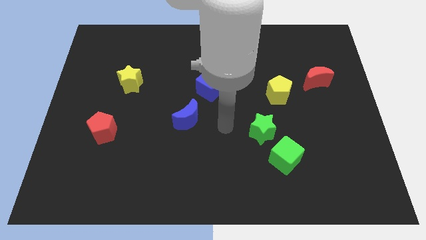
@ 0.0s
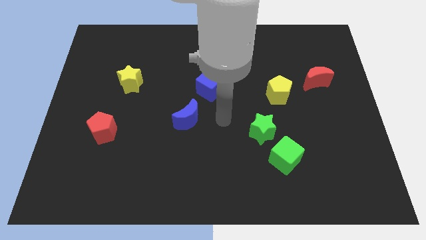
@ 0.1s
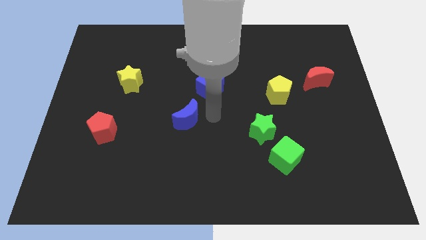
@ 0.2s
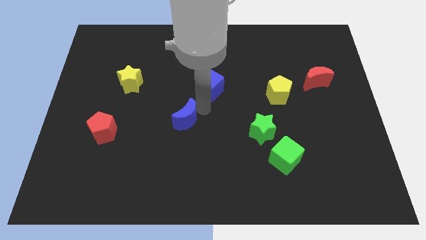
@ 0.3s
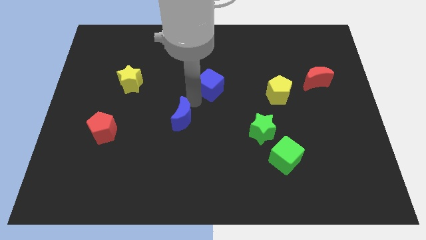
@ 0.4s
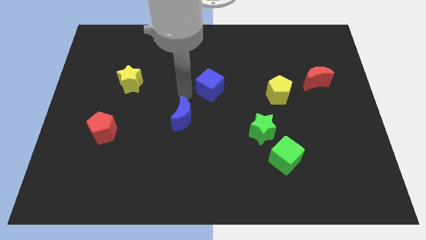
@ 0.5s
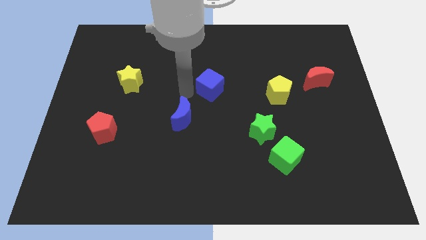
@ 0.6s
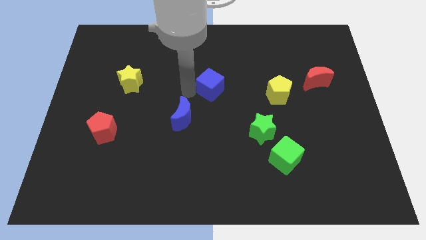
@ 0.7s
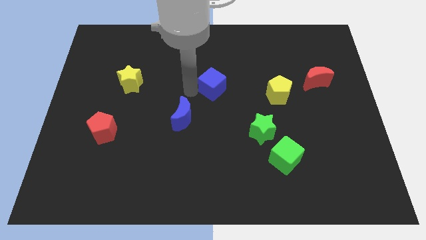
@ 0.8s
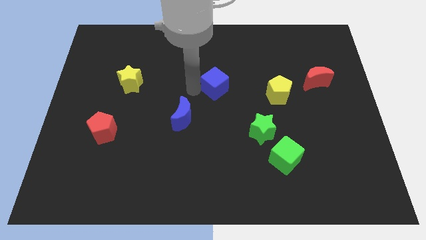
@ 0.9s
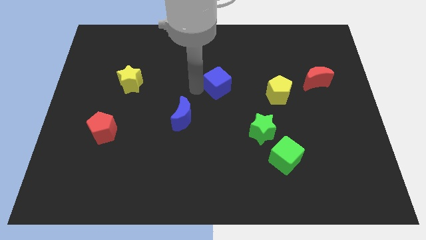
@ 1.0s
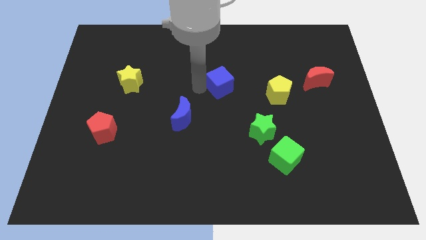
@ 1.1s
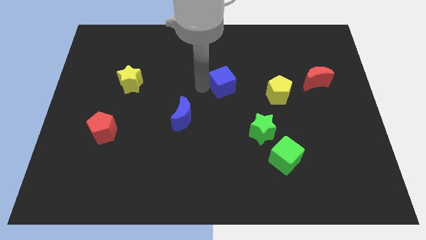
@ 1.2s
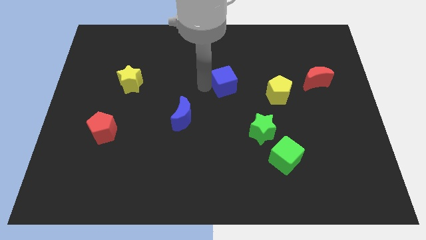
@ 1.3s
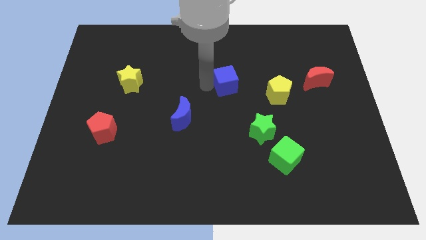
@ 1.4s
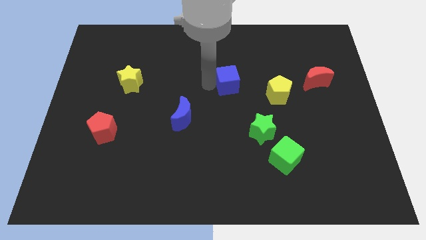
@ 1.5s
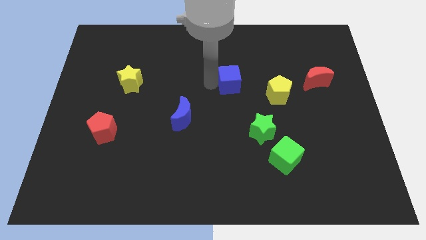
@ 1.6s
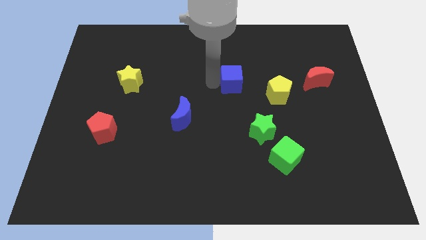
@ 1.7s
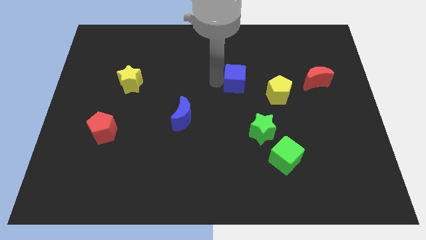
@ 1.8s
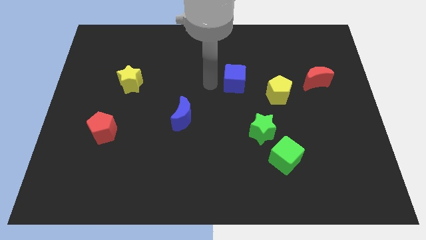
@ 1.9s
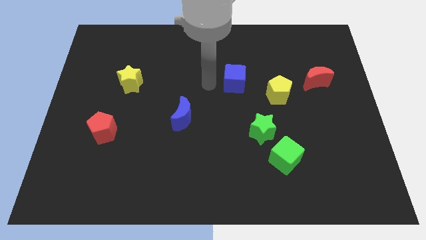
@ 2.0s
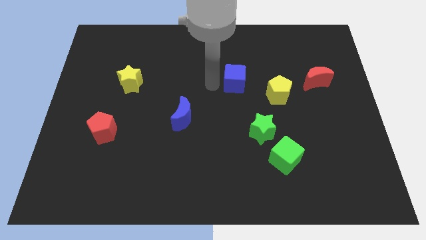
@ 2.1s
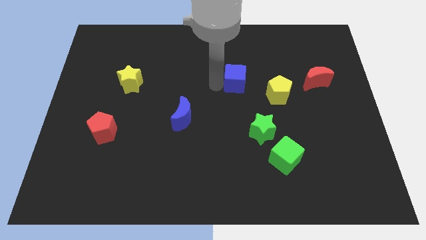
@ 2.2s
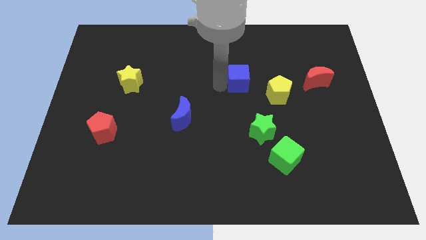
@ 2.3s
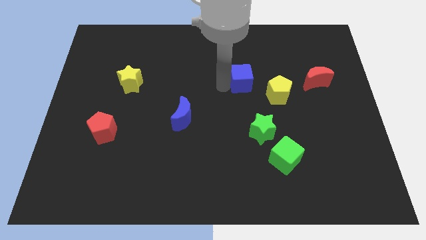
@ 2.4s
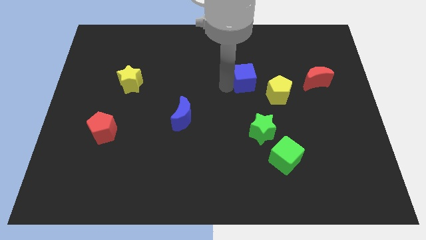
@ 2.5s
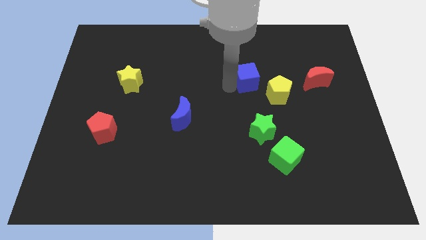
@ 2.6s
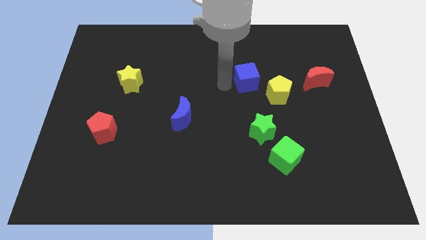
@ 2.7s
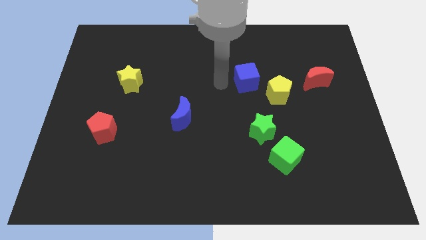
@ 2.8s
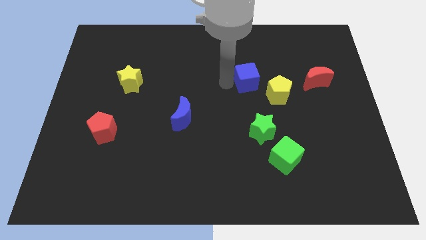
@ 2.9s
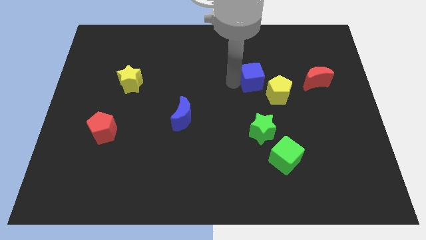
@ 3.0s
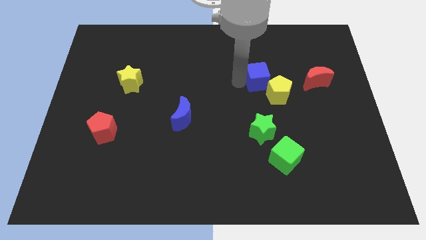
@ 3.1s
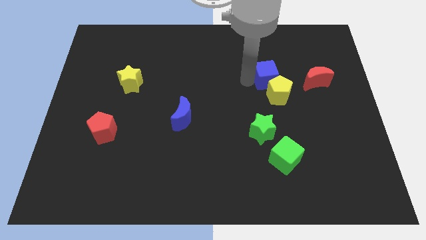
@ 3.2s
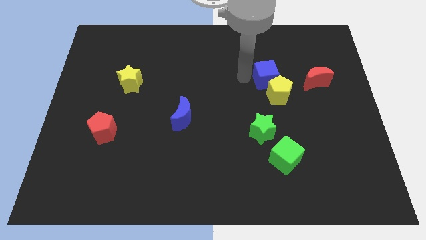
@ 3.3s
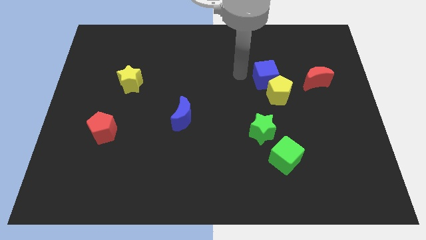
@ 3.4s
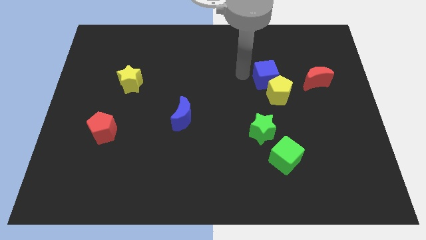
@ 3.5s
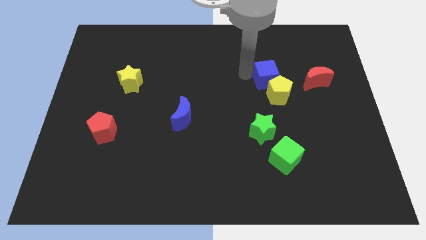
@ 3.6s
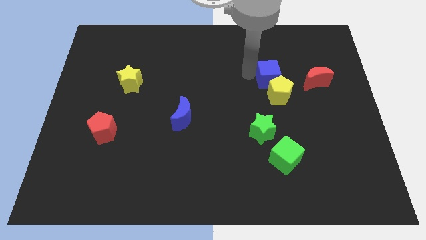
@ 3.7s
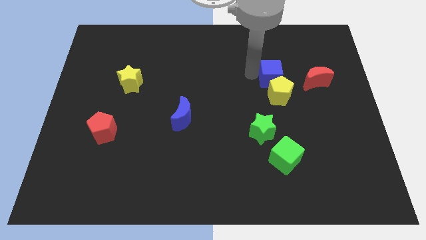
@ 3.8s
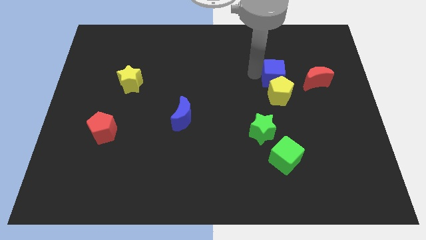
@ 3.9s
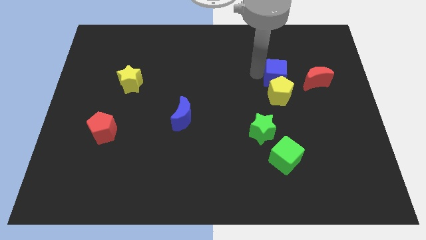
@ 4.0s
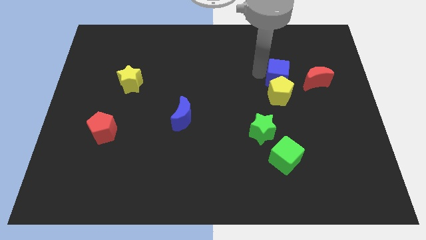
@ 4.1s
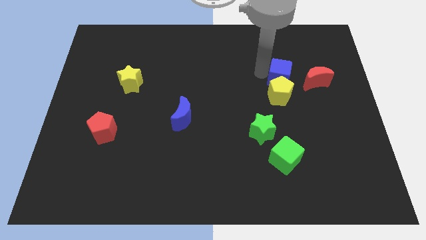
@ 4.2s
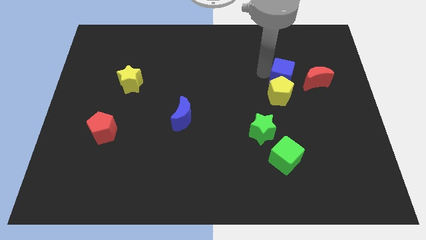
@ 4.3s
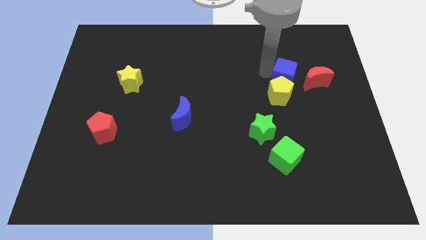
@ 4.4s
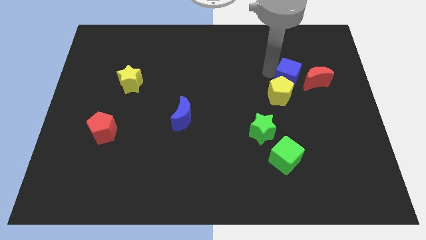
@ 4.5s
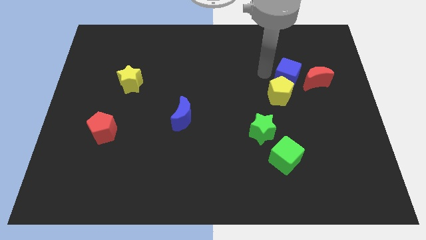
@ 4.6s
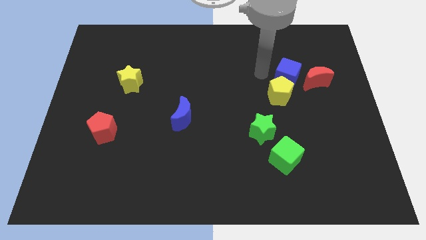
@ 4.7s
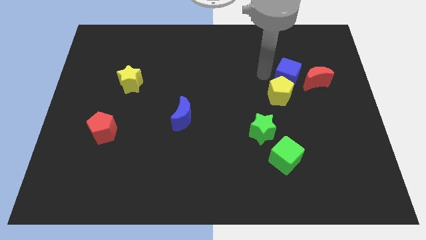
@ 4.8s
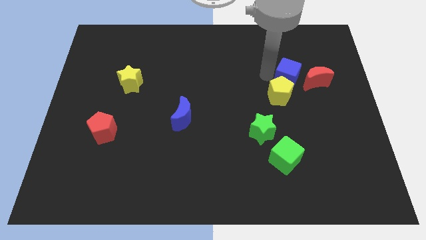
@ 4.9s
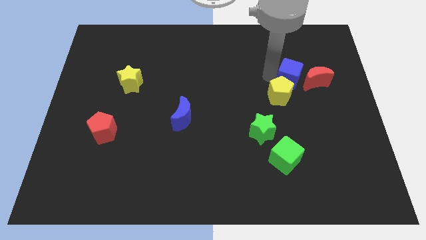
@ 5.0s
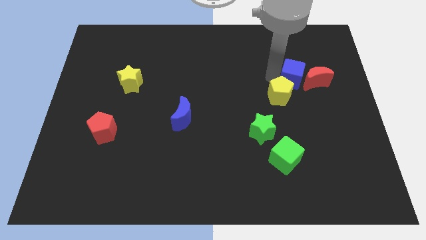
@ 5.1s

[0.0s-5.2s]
put the blue cube to the red moon

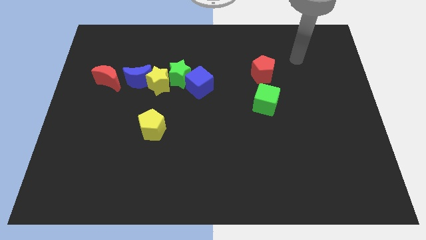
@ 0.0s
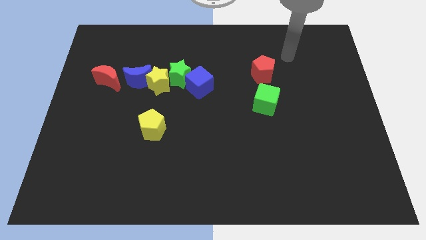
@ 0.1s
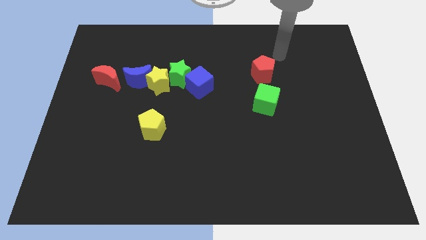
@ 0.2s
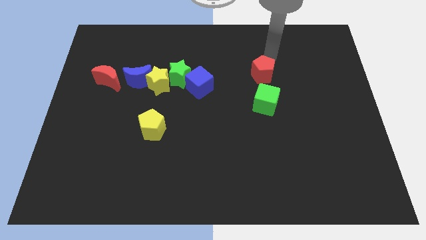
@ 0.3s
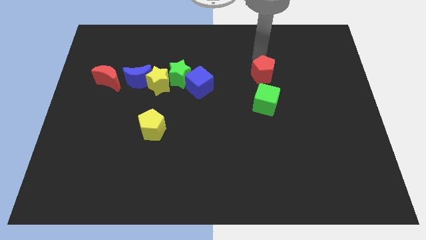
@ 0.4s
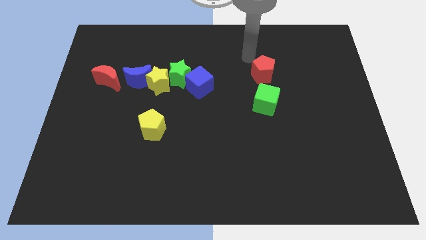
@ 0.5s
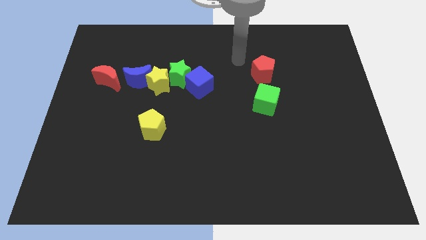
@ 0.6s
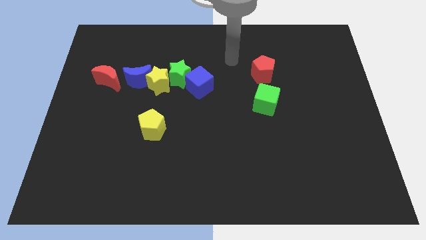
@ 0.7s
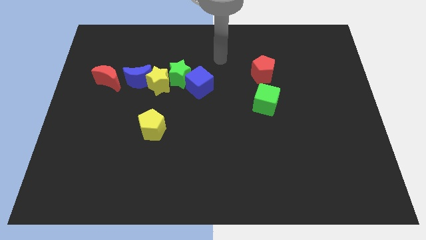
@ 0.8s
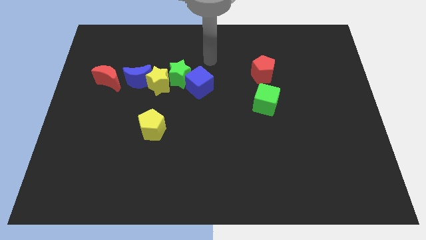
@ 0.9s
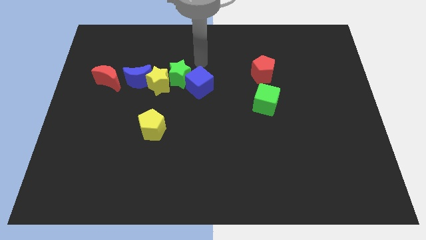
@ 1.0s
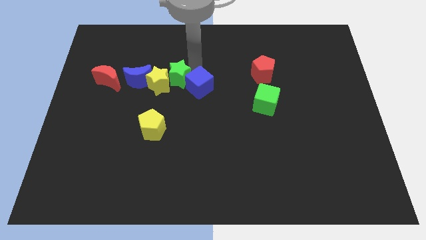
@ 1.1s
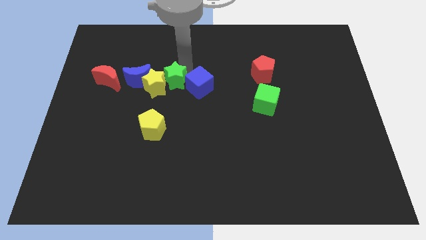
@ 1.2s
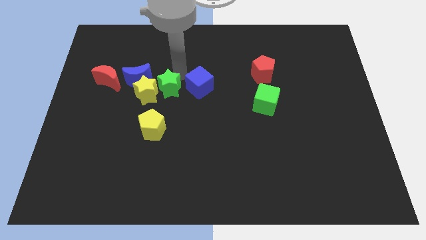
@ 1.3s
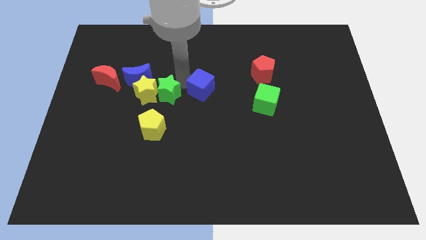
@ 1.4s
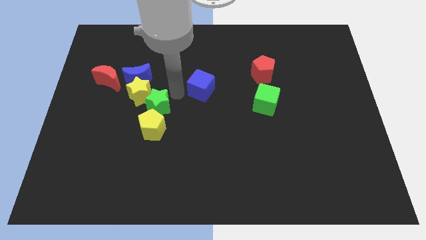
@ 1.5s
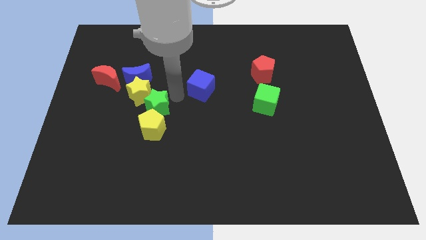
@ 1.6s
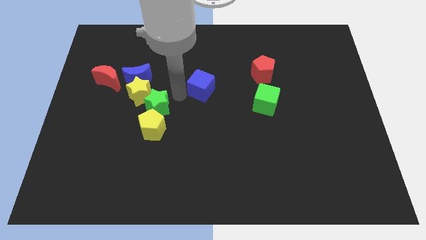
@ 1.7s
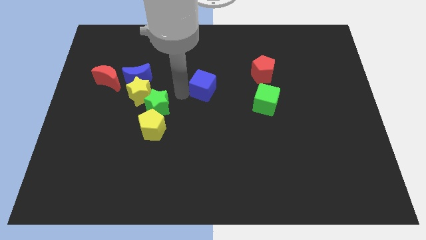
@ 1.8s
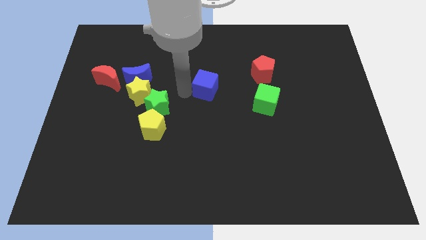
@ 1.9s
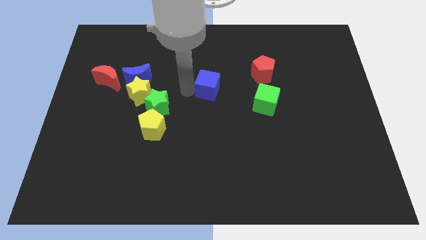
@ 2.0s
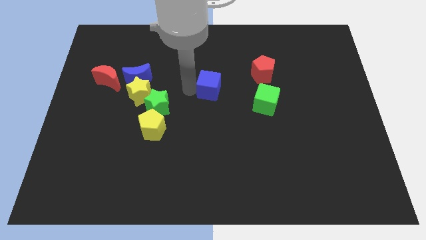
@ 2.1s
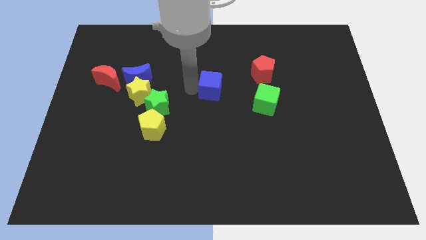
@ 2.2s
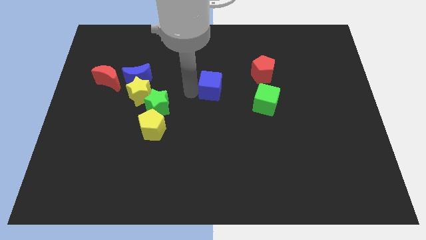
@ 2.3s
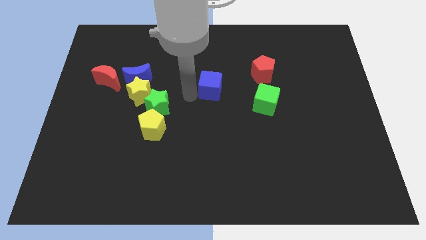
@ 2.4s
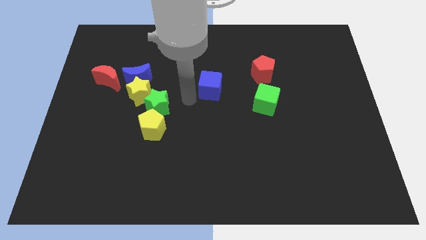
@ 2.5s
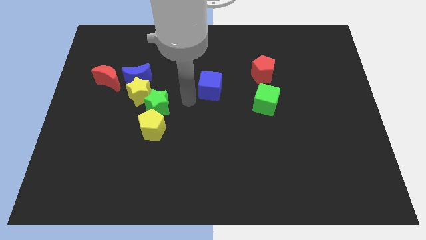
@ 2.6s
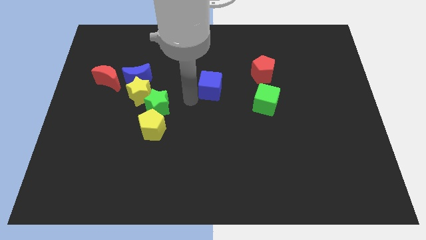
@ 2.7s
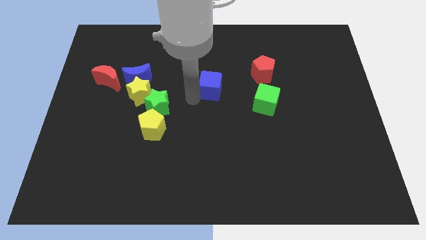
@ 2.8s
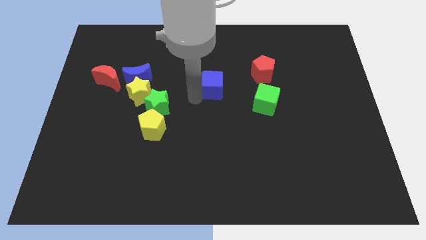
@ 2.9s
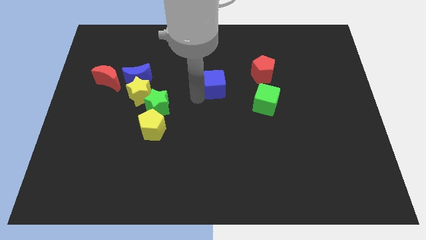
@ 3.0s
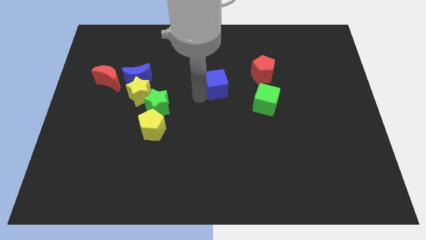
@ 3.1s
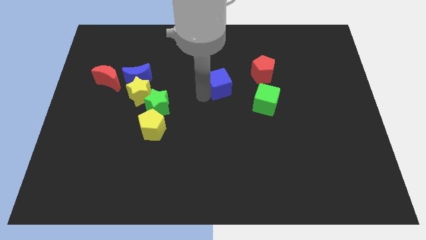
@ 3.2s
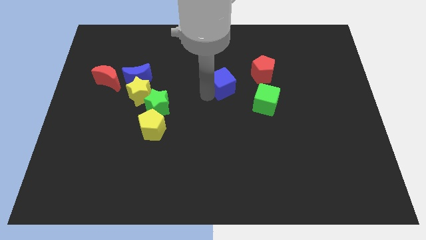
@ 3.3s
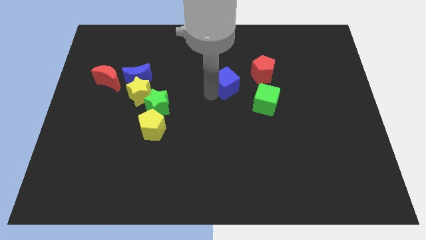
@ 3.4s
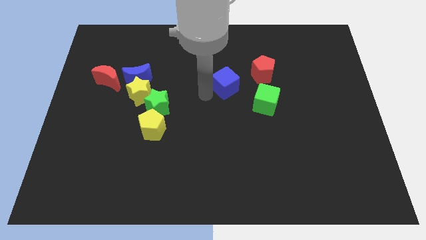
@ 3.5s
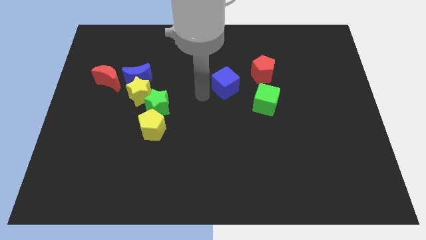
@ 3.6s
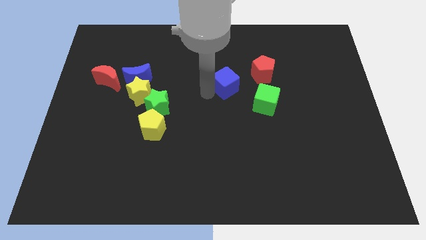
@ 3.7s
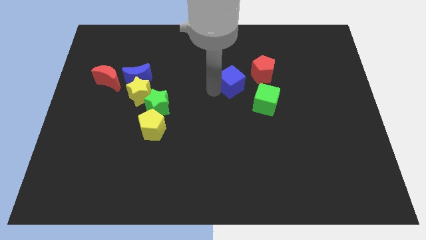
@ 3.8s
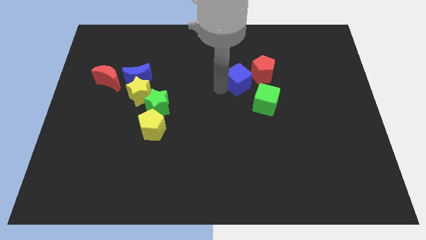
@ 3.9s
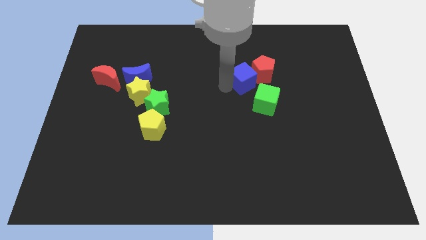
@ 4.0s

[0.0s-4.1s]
slide the blue cube next to the red pentagon
